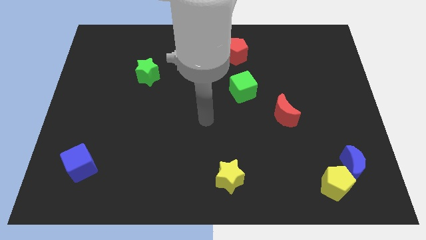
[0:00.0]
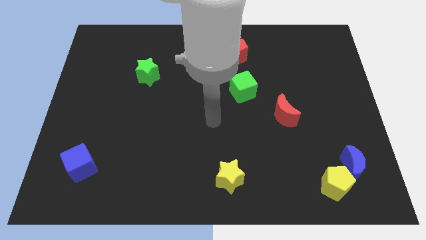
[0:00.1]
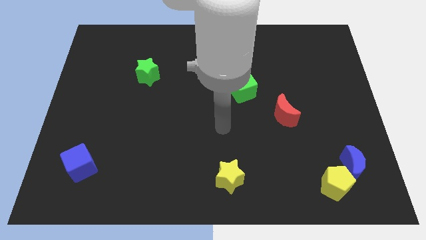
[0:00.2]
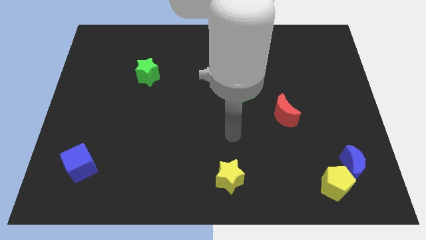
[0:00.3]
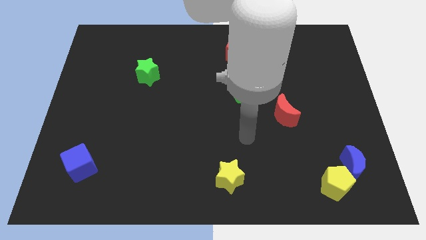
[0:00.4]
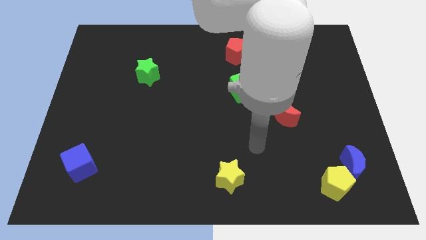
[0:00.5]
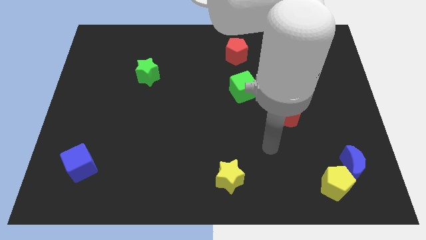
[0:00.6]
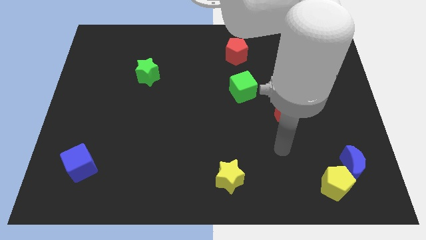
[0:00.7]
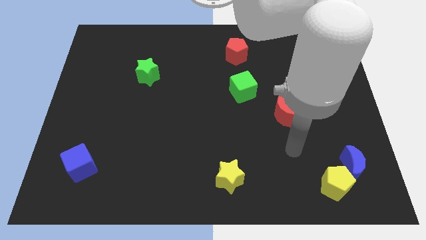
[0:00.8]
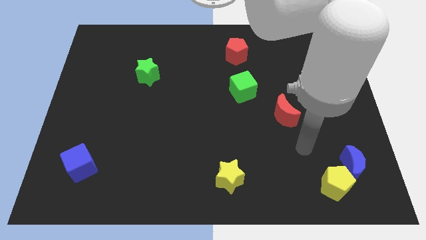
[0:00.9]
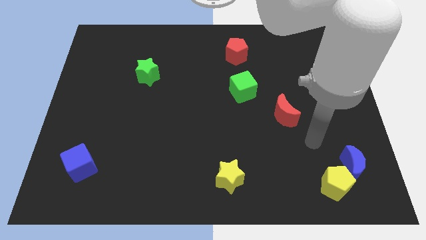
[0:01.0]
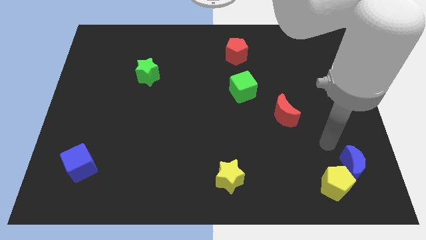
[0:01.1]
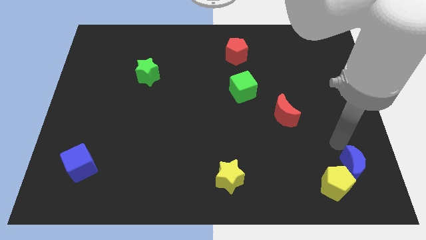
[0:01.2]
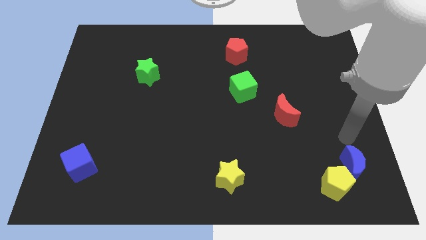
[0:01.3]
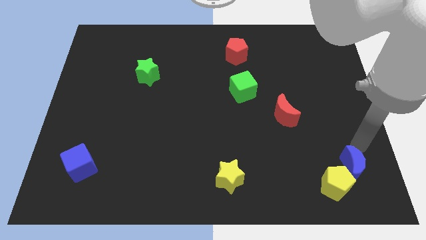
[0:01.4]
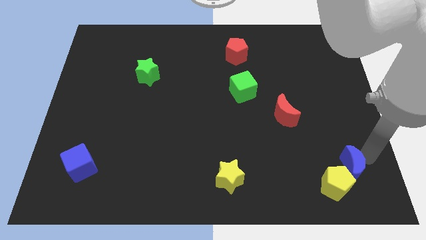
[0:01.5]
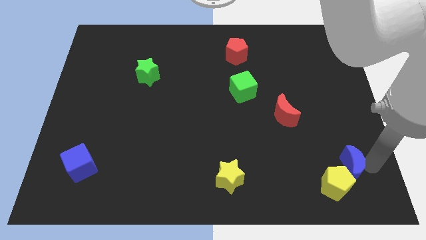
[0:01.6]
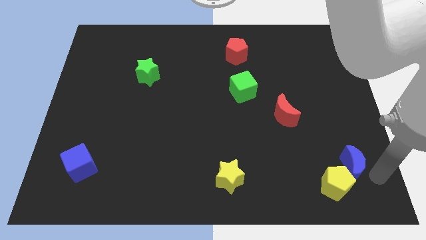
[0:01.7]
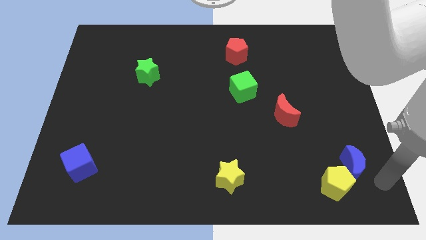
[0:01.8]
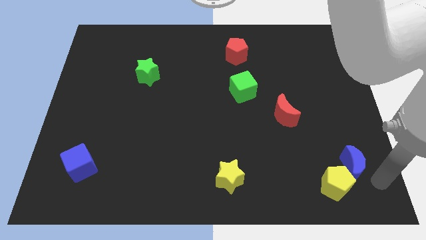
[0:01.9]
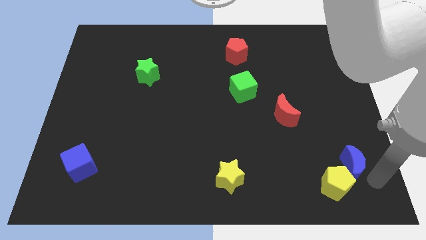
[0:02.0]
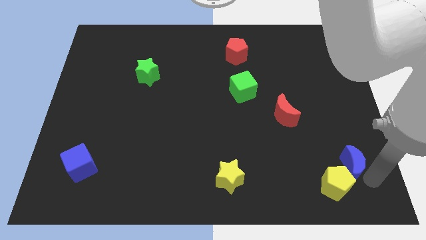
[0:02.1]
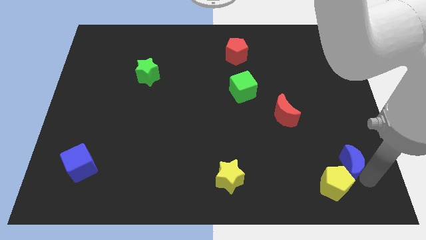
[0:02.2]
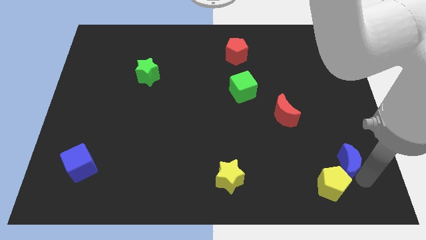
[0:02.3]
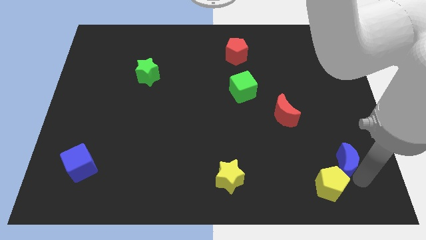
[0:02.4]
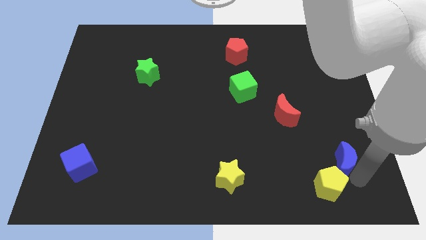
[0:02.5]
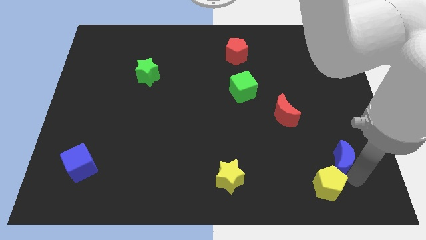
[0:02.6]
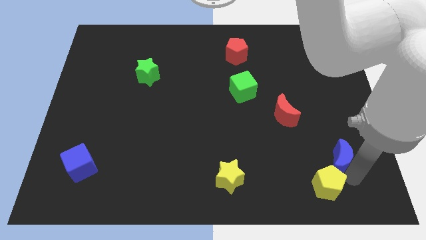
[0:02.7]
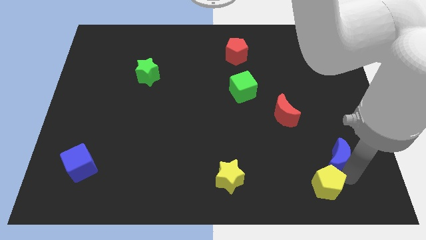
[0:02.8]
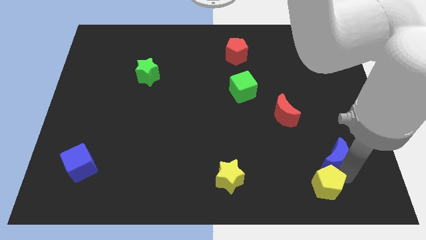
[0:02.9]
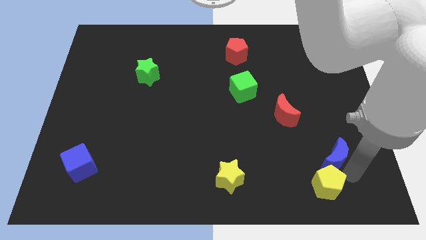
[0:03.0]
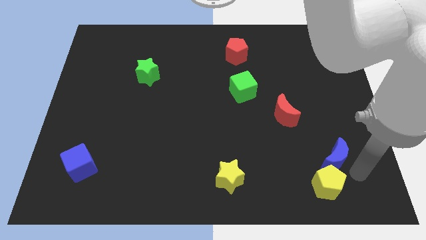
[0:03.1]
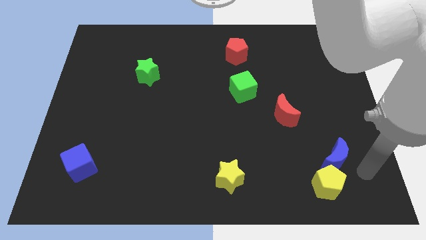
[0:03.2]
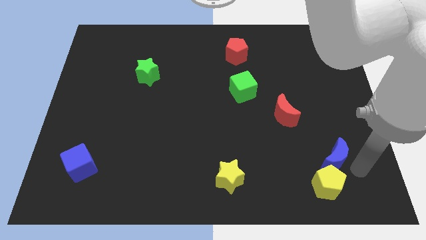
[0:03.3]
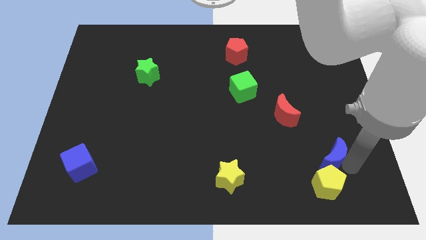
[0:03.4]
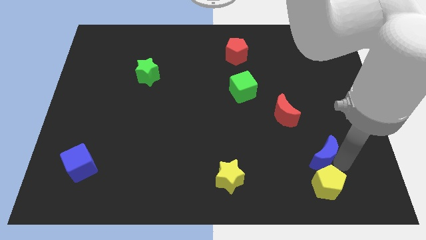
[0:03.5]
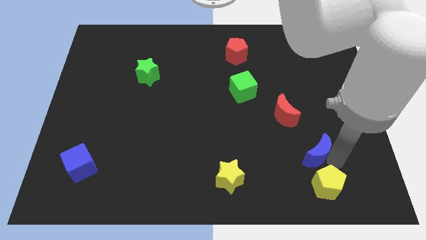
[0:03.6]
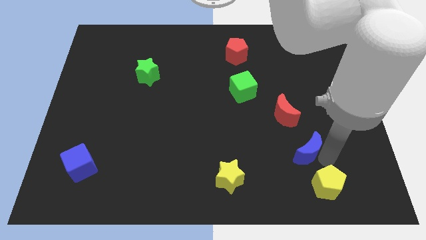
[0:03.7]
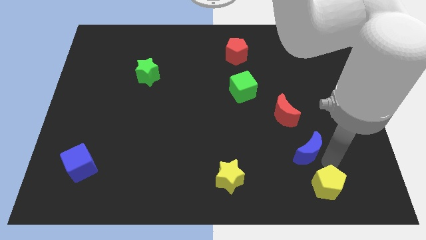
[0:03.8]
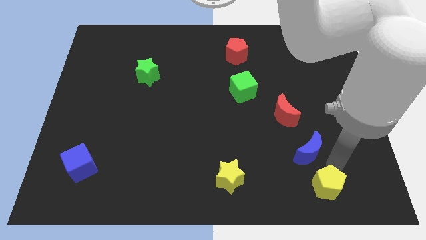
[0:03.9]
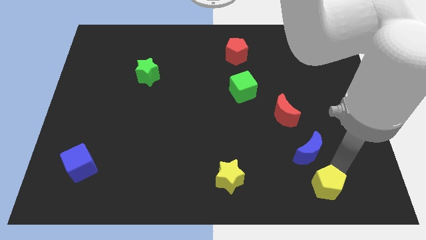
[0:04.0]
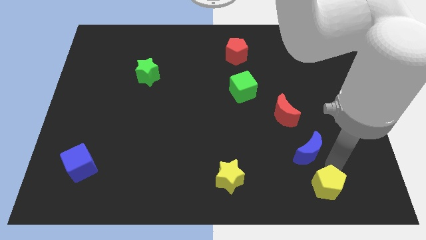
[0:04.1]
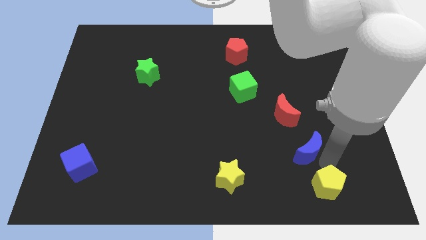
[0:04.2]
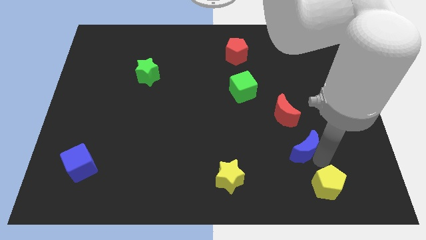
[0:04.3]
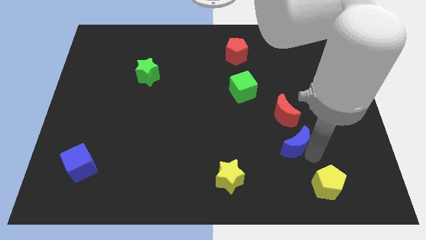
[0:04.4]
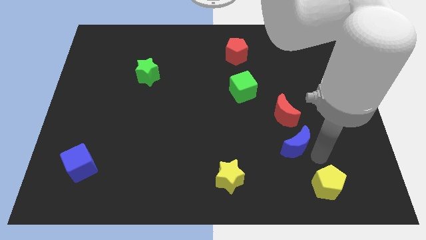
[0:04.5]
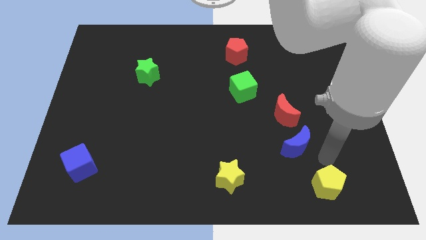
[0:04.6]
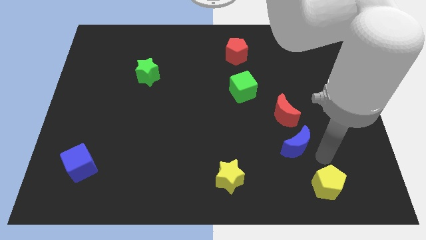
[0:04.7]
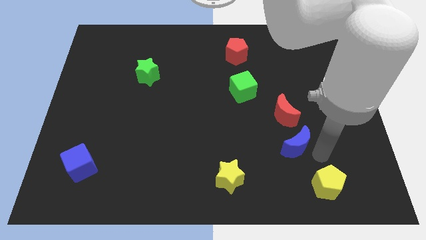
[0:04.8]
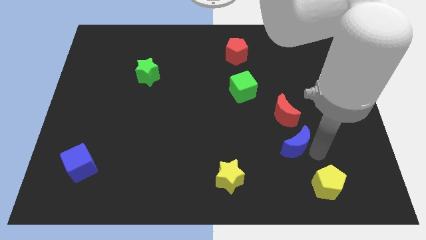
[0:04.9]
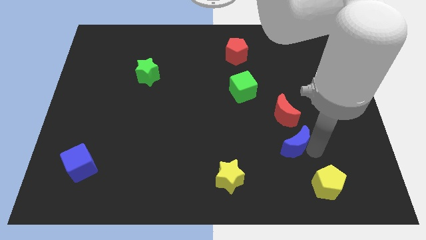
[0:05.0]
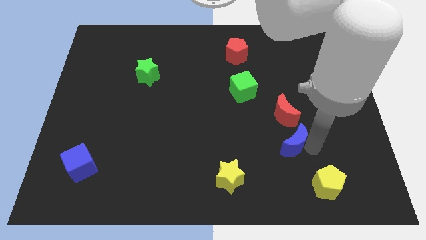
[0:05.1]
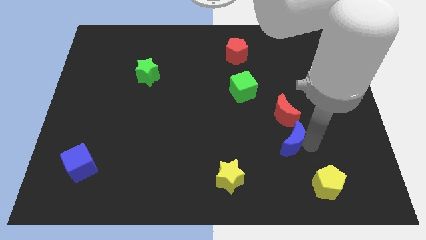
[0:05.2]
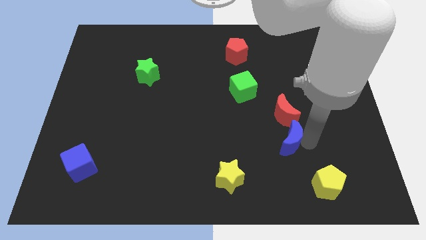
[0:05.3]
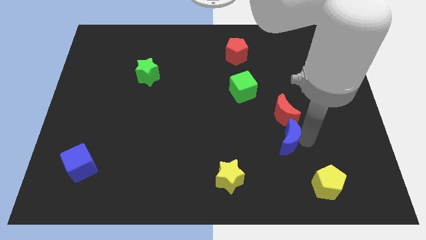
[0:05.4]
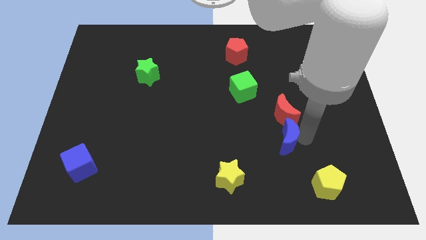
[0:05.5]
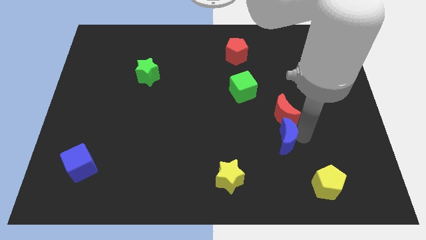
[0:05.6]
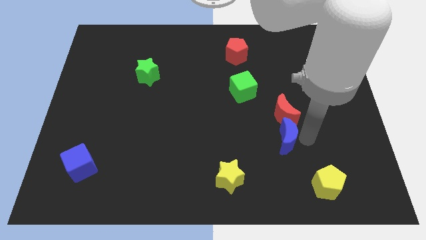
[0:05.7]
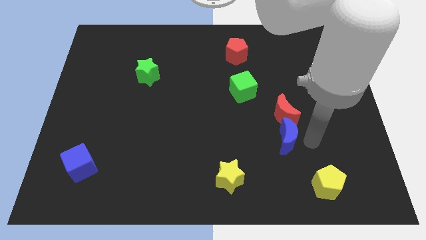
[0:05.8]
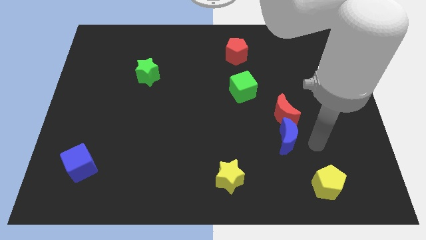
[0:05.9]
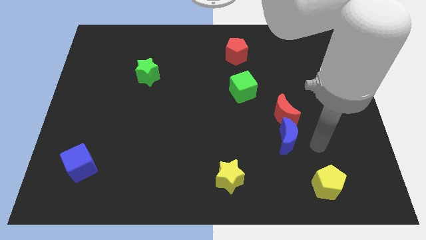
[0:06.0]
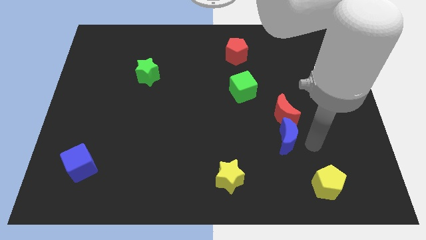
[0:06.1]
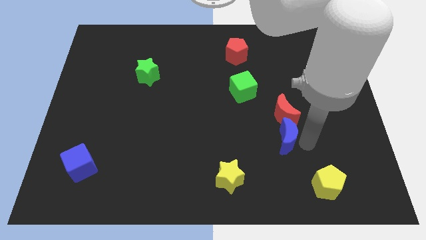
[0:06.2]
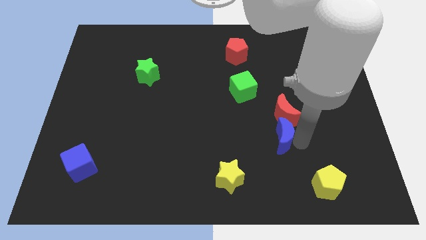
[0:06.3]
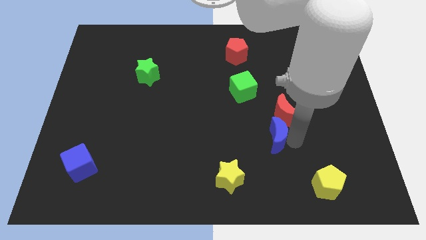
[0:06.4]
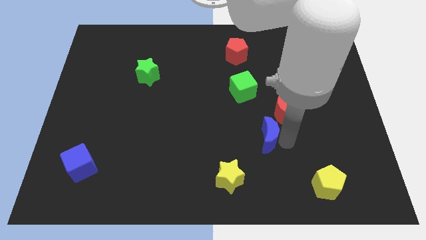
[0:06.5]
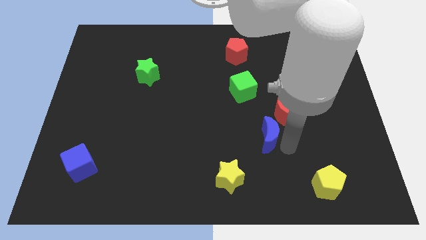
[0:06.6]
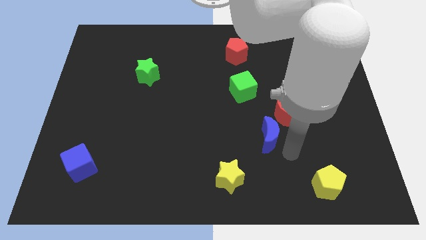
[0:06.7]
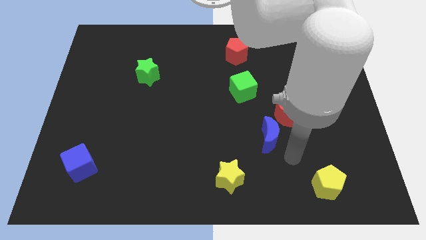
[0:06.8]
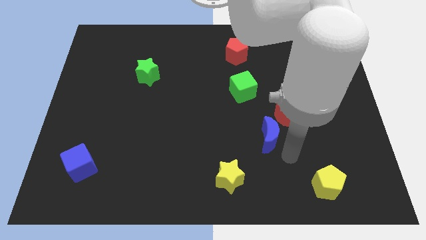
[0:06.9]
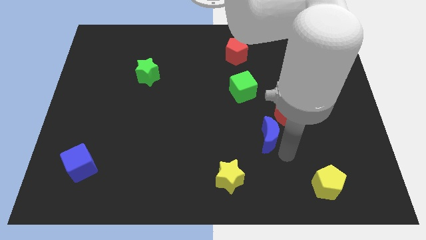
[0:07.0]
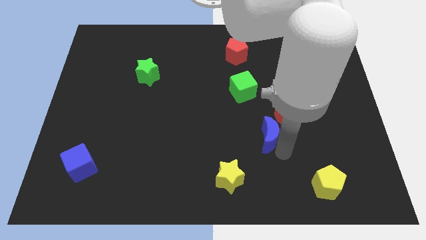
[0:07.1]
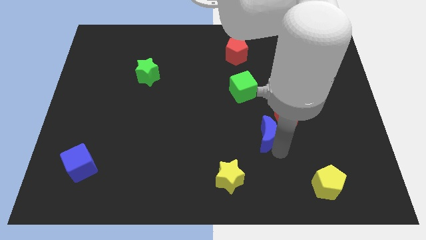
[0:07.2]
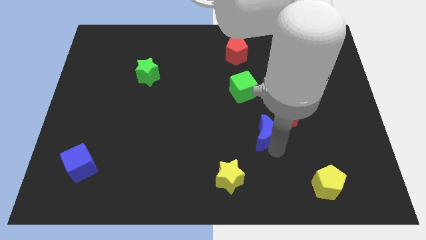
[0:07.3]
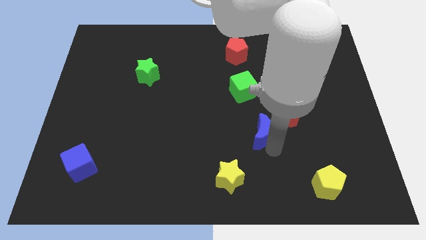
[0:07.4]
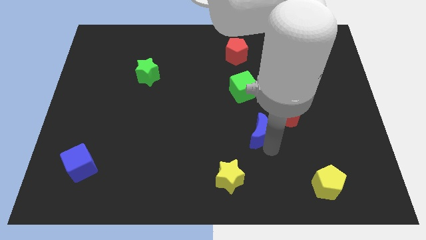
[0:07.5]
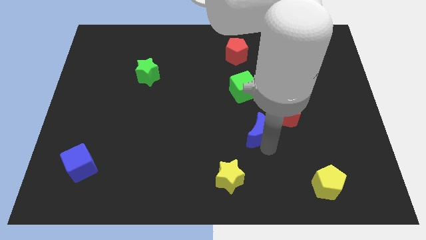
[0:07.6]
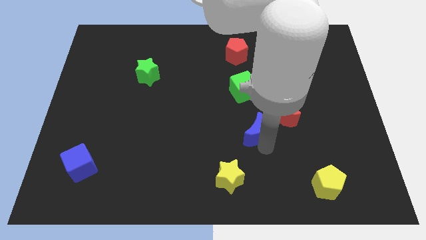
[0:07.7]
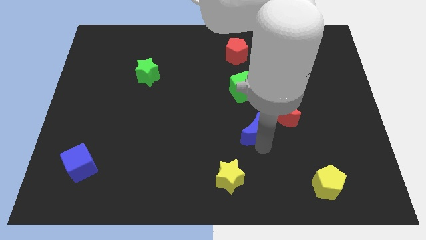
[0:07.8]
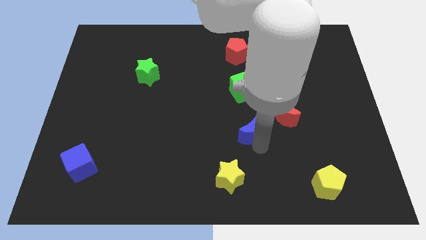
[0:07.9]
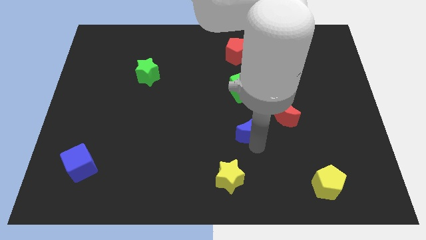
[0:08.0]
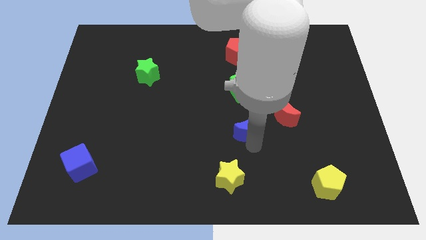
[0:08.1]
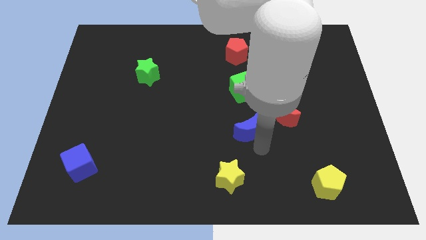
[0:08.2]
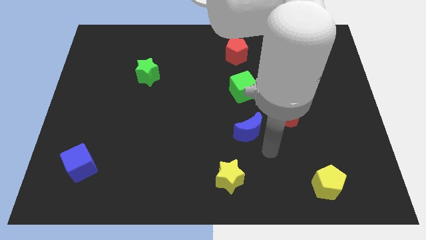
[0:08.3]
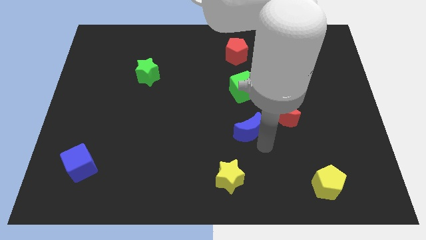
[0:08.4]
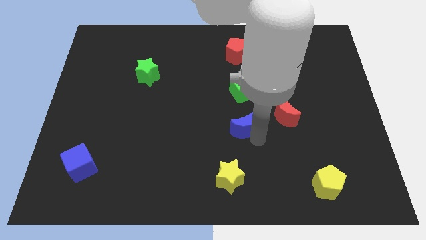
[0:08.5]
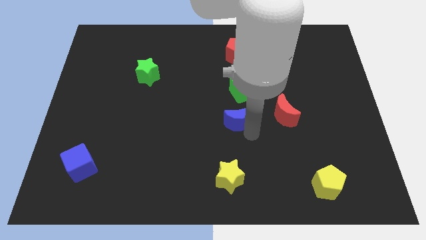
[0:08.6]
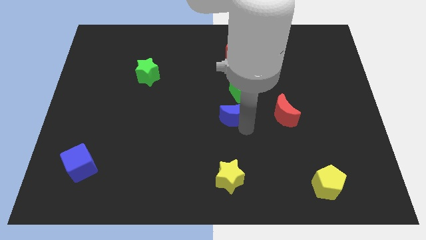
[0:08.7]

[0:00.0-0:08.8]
slide the blue moon to the bottom left of the green cube
